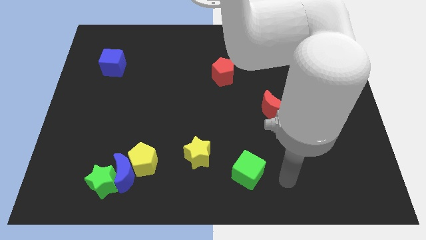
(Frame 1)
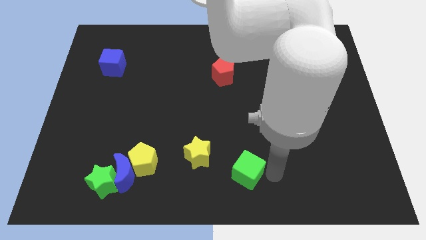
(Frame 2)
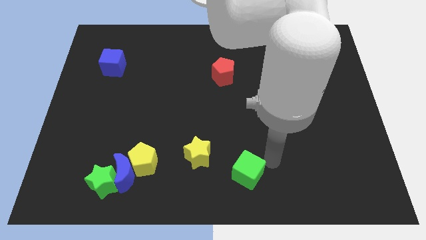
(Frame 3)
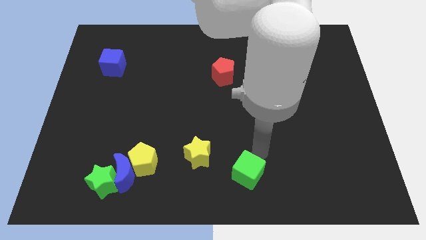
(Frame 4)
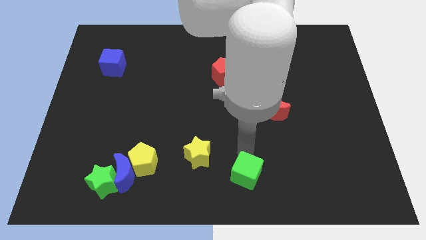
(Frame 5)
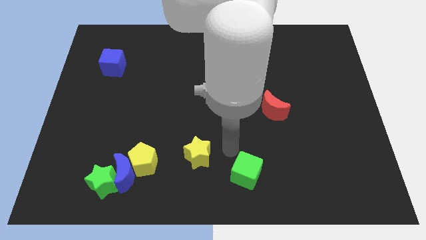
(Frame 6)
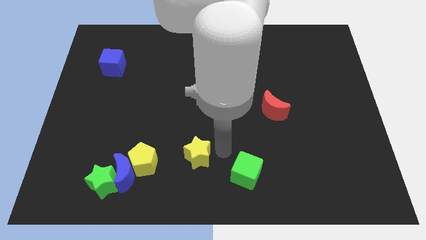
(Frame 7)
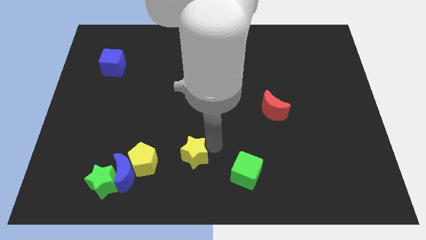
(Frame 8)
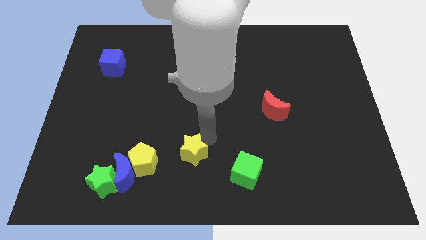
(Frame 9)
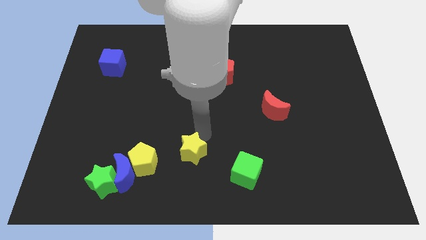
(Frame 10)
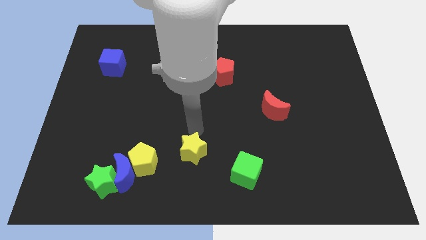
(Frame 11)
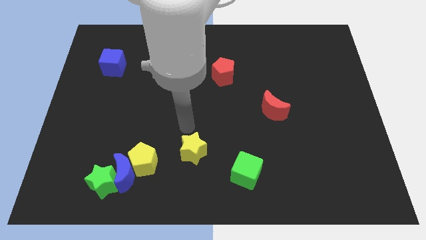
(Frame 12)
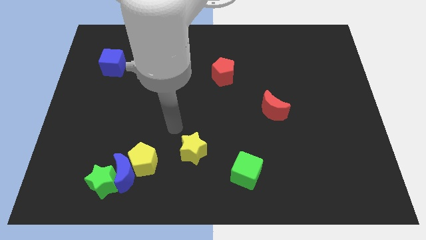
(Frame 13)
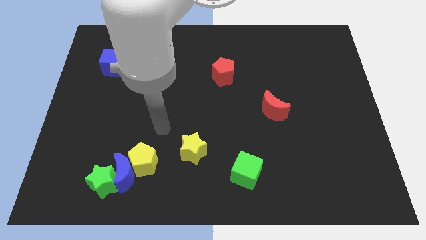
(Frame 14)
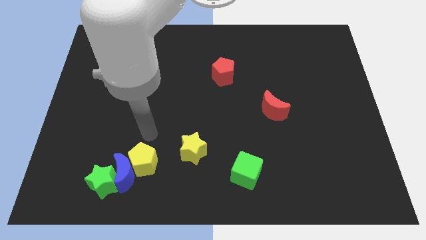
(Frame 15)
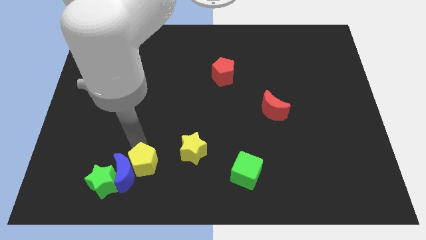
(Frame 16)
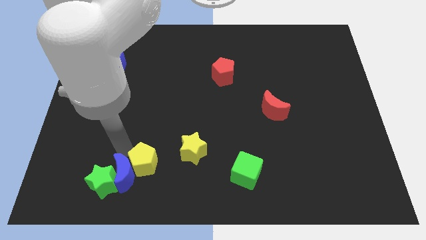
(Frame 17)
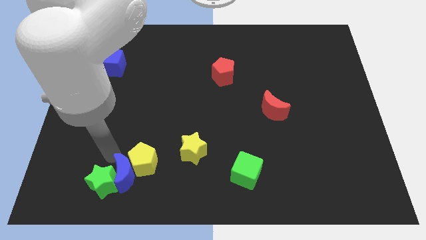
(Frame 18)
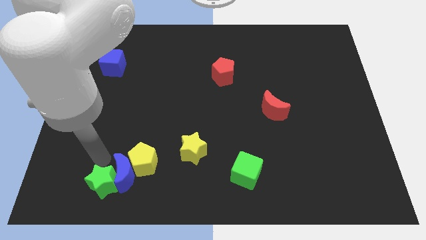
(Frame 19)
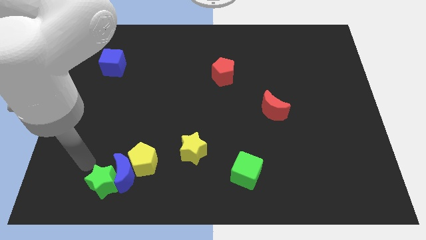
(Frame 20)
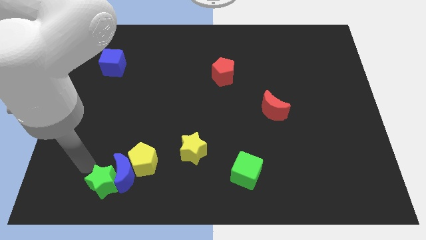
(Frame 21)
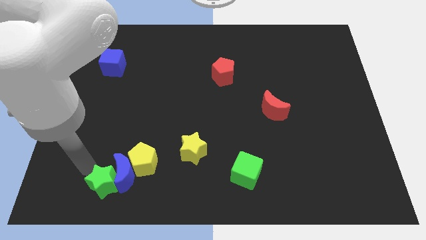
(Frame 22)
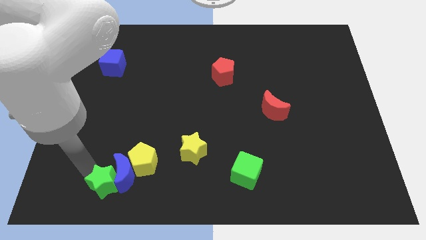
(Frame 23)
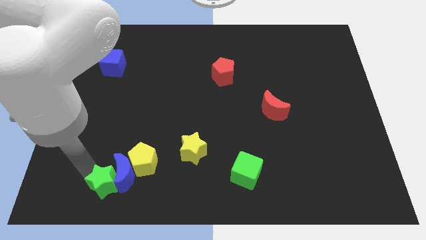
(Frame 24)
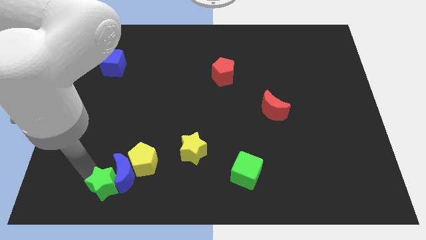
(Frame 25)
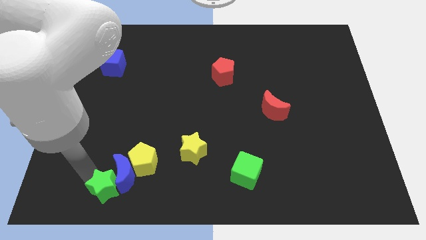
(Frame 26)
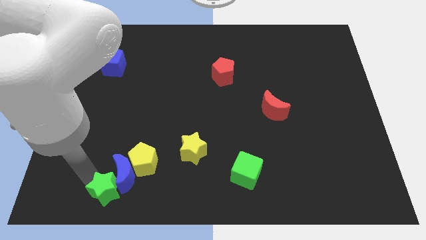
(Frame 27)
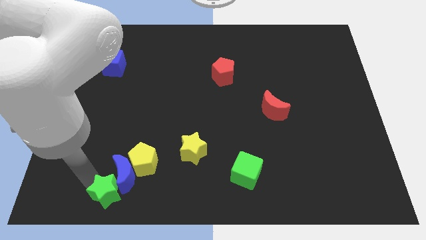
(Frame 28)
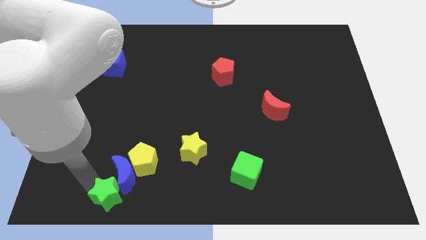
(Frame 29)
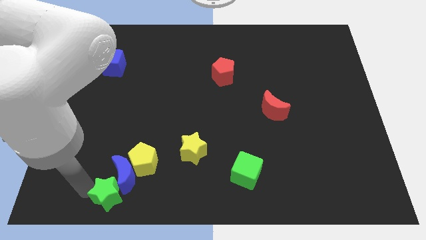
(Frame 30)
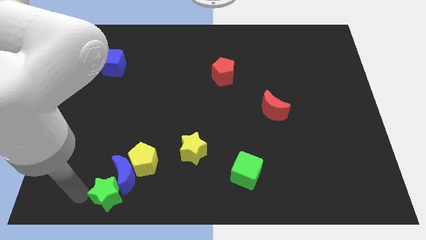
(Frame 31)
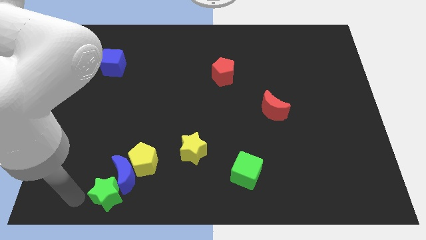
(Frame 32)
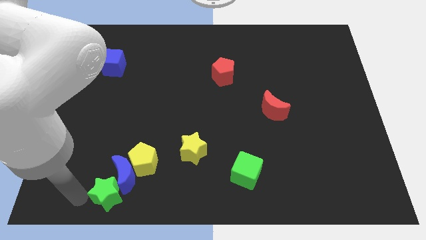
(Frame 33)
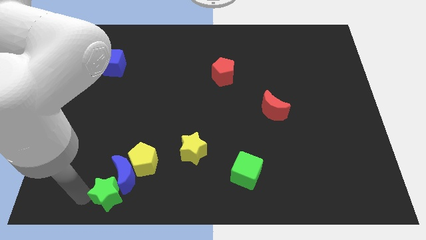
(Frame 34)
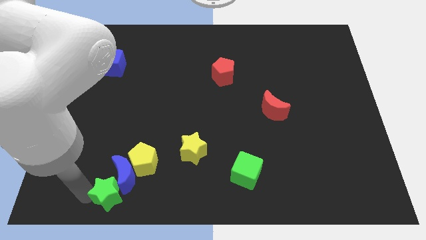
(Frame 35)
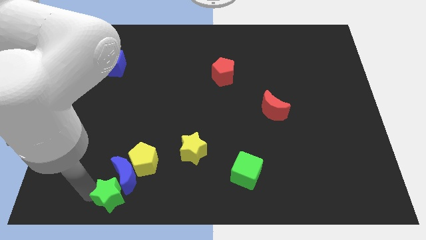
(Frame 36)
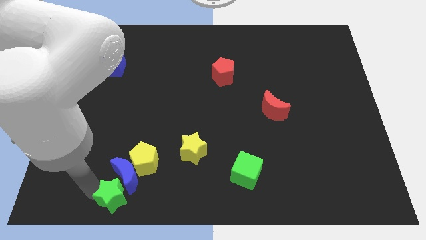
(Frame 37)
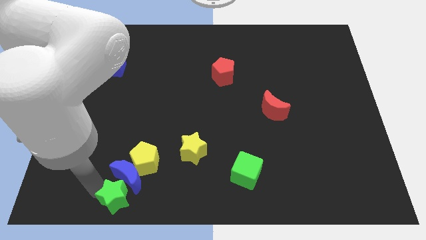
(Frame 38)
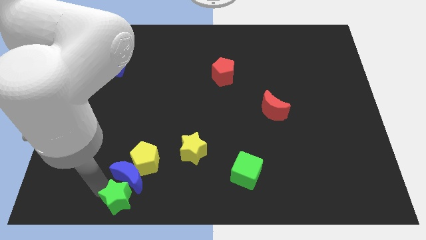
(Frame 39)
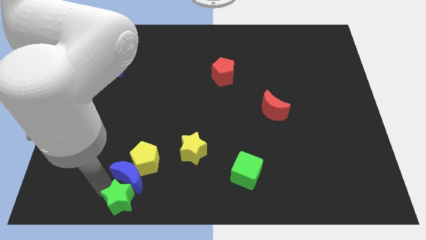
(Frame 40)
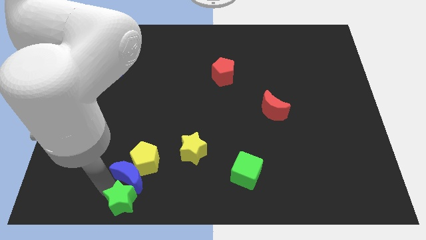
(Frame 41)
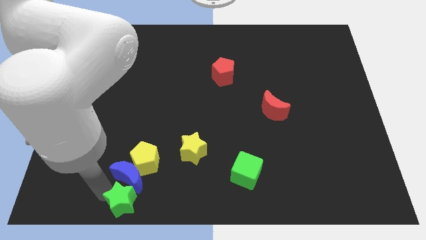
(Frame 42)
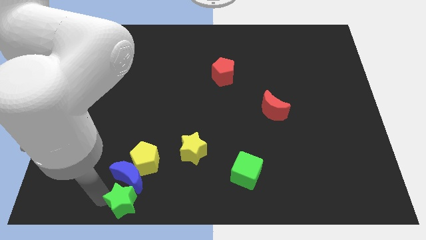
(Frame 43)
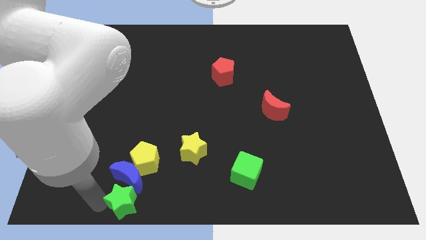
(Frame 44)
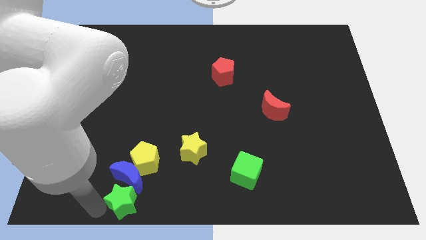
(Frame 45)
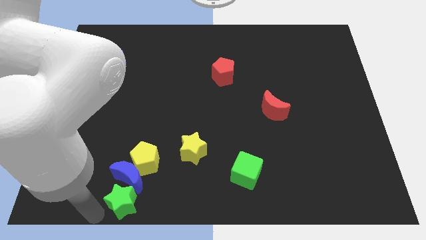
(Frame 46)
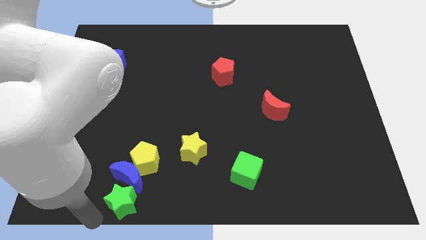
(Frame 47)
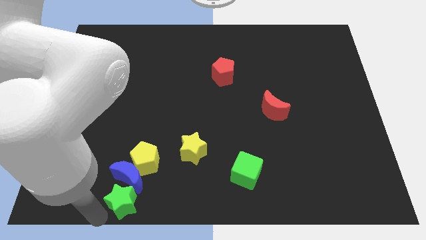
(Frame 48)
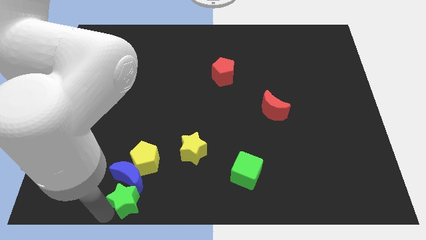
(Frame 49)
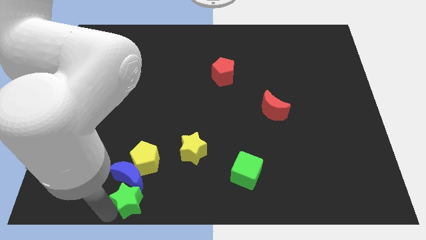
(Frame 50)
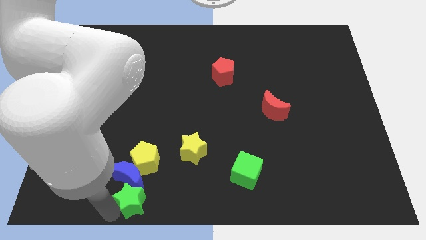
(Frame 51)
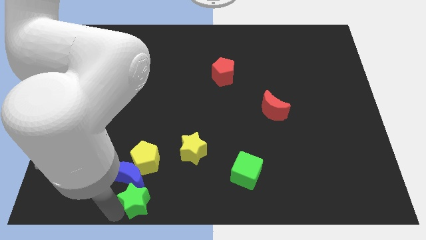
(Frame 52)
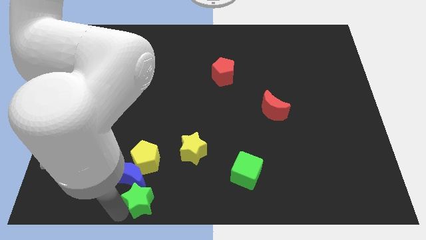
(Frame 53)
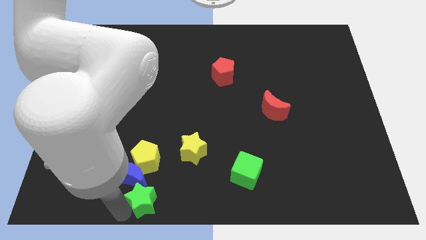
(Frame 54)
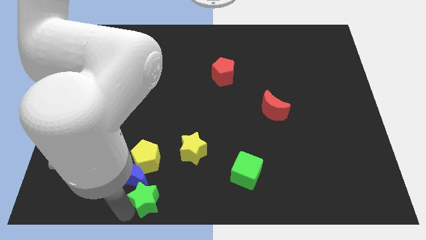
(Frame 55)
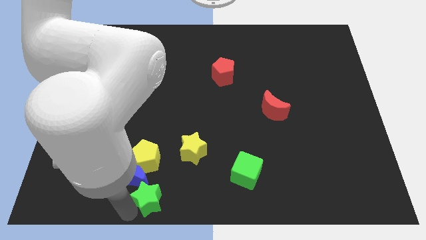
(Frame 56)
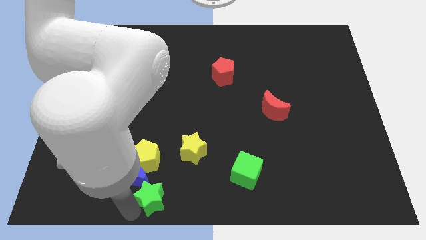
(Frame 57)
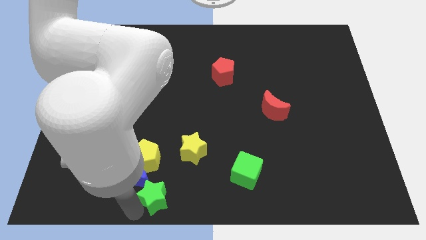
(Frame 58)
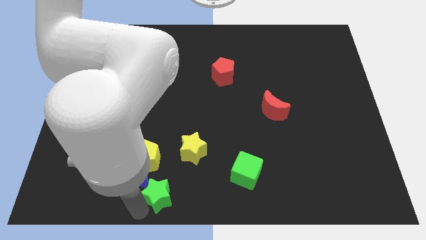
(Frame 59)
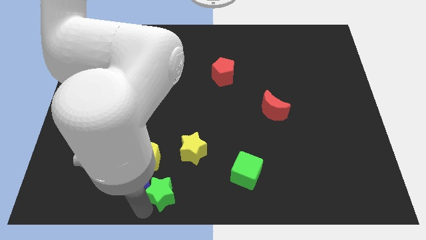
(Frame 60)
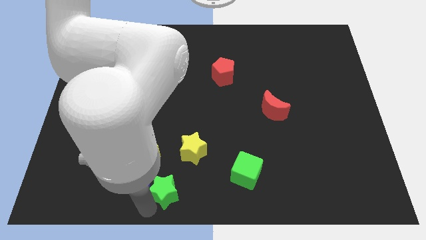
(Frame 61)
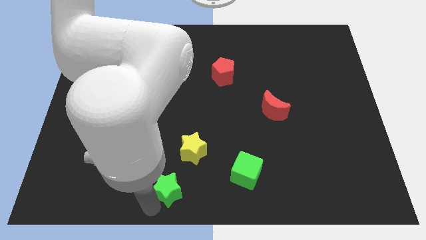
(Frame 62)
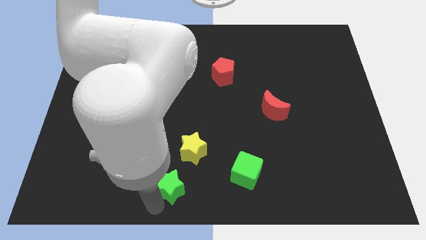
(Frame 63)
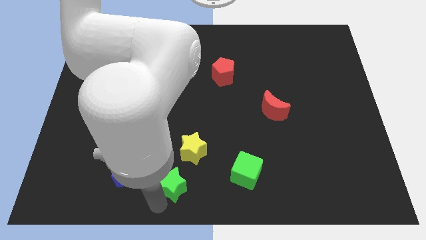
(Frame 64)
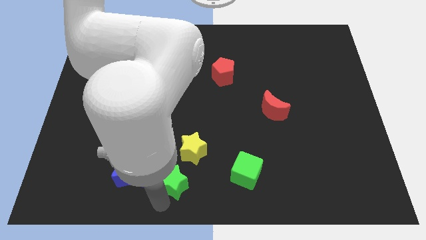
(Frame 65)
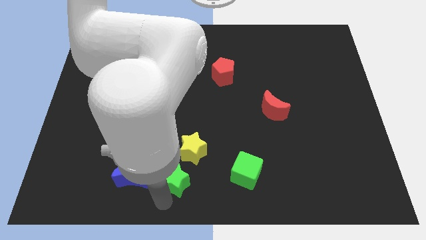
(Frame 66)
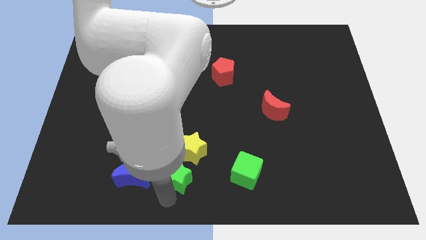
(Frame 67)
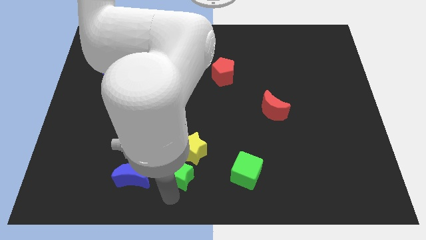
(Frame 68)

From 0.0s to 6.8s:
move the green star close to the yellow star

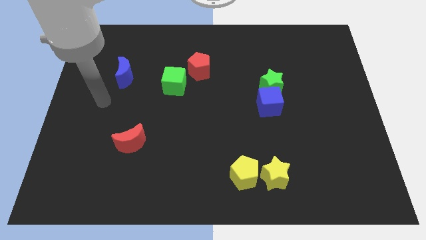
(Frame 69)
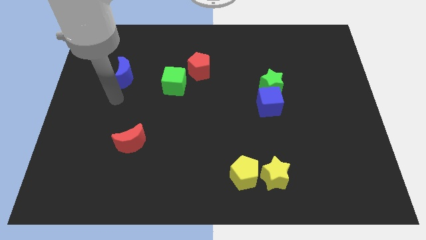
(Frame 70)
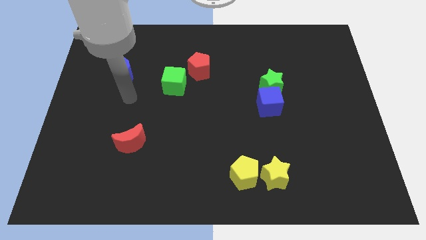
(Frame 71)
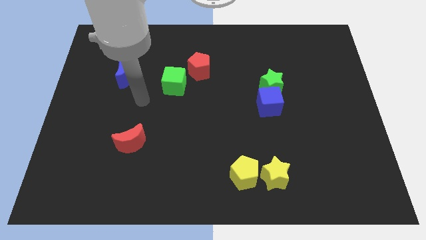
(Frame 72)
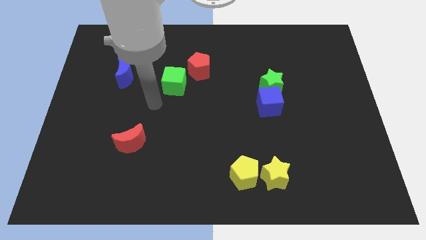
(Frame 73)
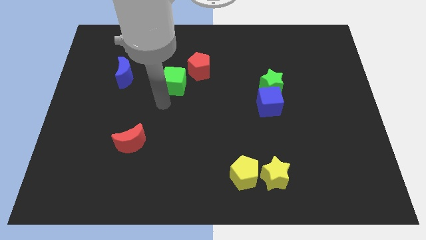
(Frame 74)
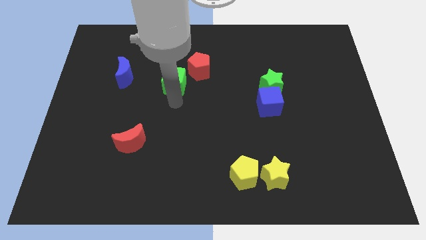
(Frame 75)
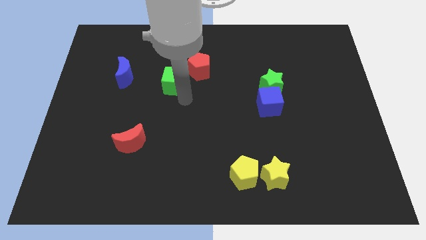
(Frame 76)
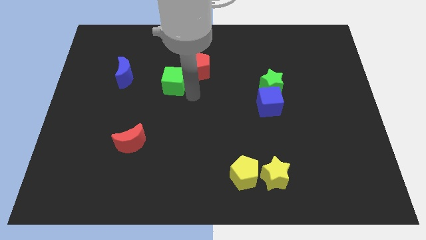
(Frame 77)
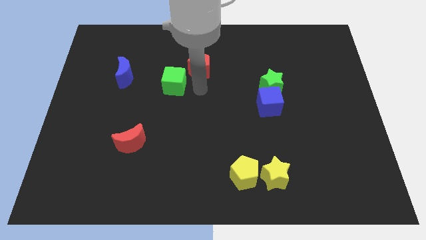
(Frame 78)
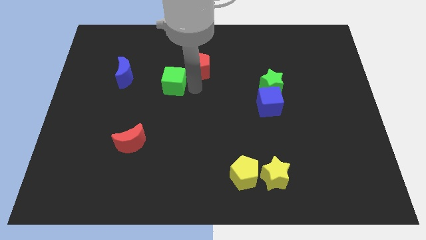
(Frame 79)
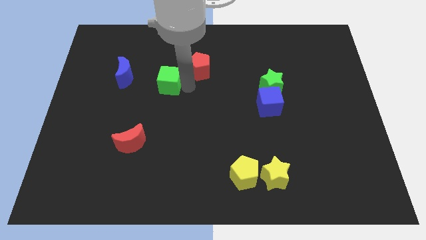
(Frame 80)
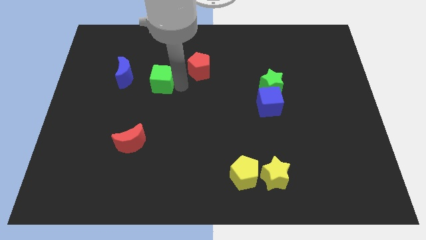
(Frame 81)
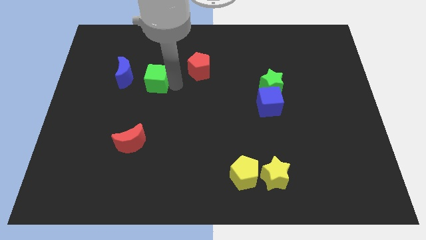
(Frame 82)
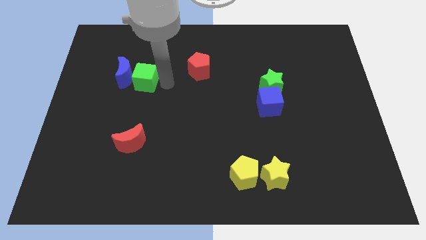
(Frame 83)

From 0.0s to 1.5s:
put the green cube next to the blue moon
